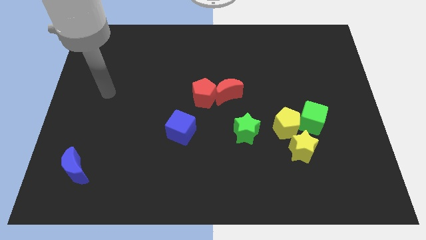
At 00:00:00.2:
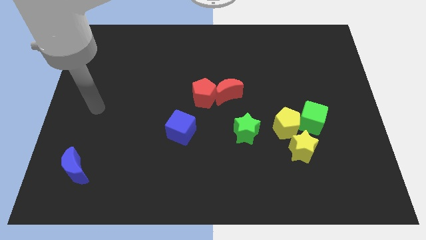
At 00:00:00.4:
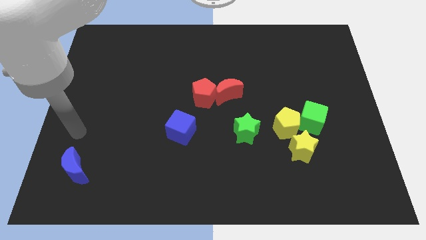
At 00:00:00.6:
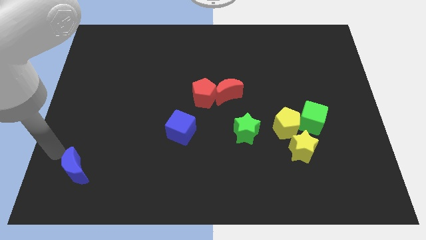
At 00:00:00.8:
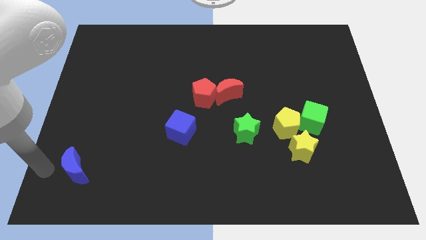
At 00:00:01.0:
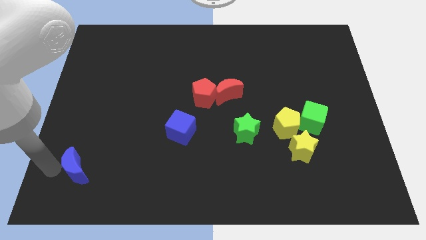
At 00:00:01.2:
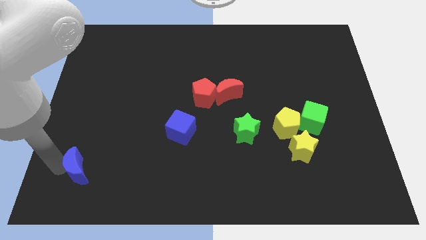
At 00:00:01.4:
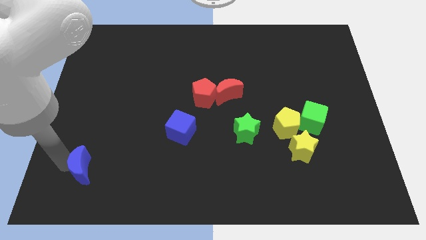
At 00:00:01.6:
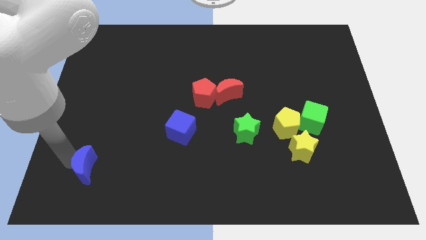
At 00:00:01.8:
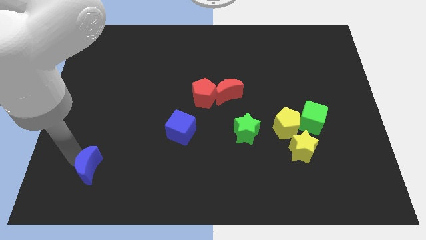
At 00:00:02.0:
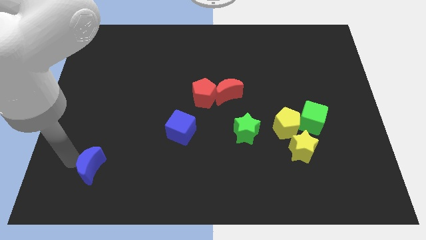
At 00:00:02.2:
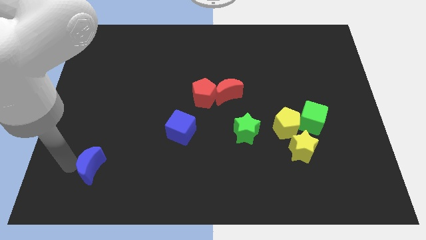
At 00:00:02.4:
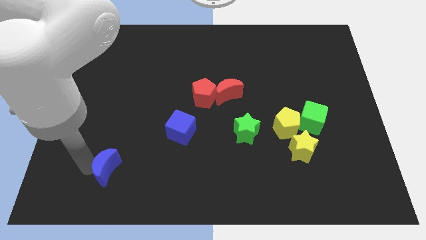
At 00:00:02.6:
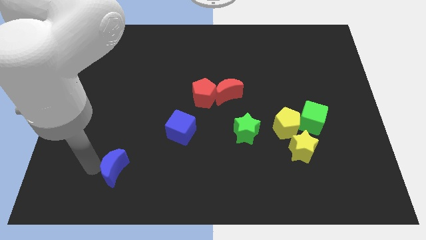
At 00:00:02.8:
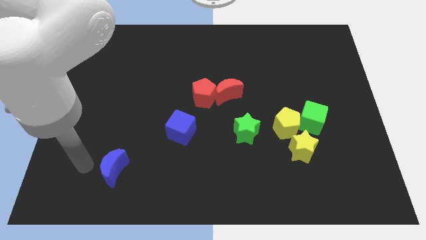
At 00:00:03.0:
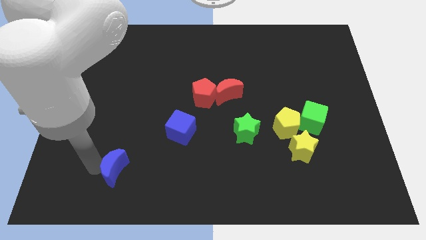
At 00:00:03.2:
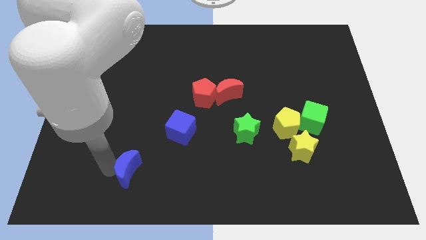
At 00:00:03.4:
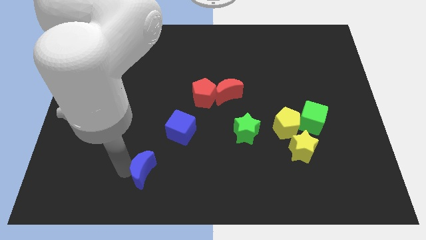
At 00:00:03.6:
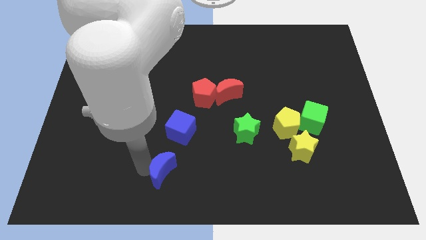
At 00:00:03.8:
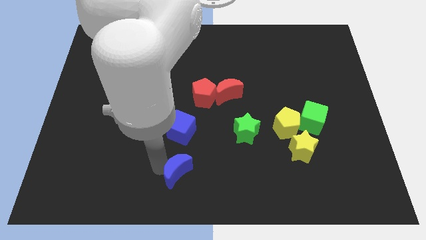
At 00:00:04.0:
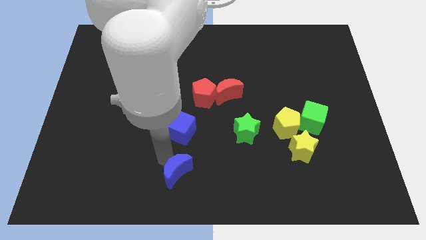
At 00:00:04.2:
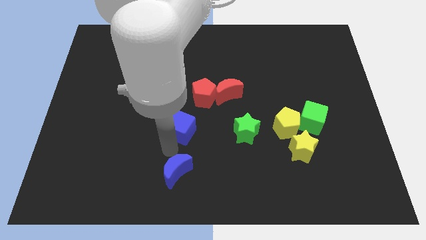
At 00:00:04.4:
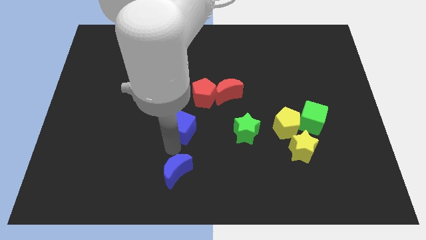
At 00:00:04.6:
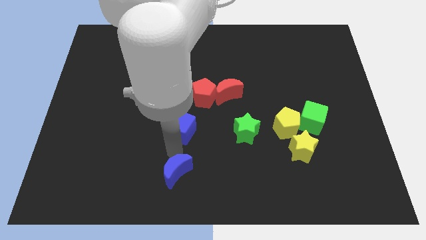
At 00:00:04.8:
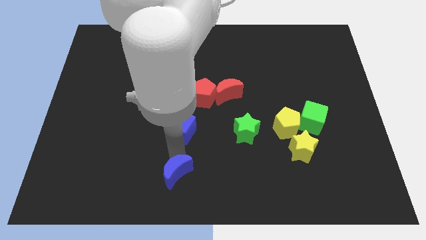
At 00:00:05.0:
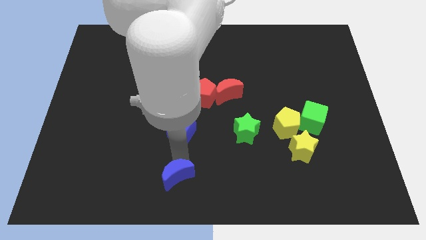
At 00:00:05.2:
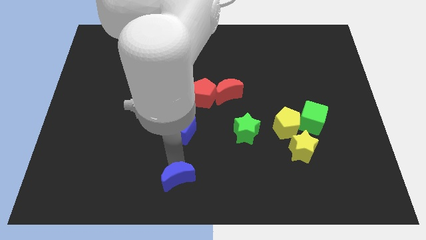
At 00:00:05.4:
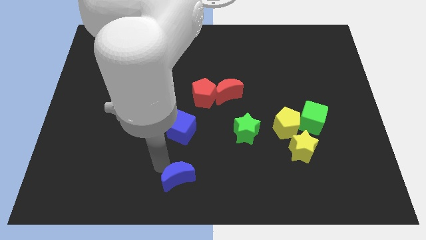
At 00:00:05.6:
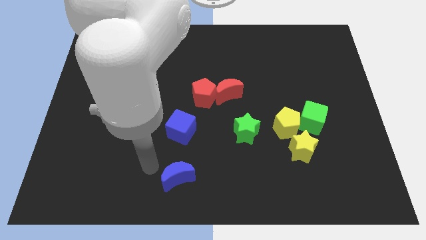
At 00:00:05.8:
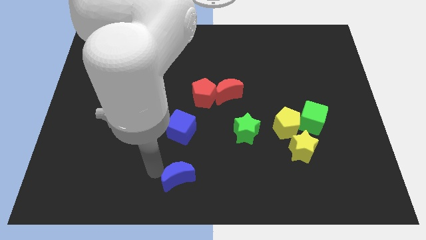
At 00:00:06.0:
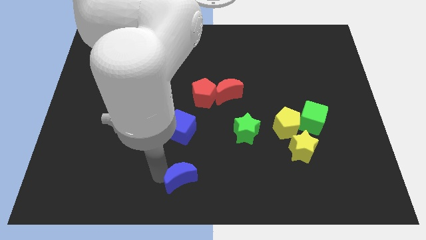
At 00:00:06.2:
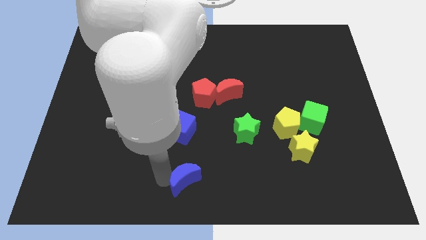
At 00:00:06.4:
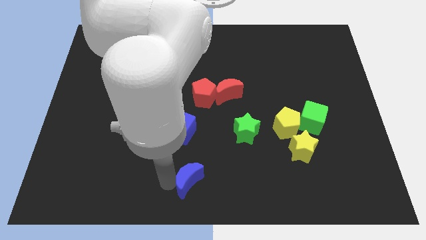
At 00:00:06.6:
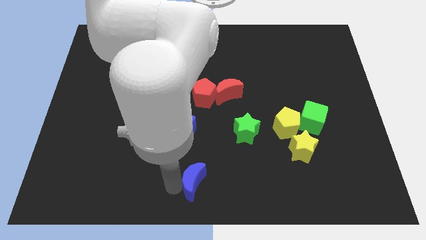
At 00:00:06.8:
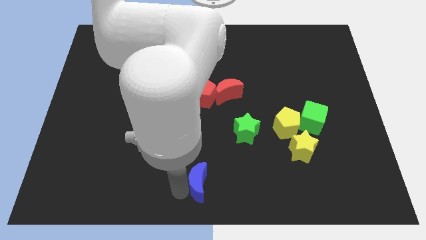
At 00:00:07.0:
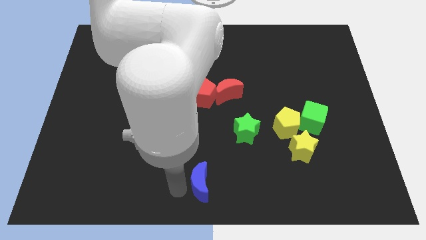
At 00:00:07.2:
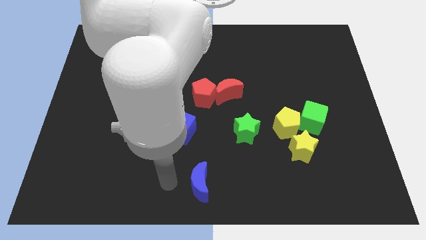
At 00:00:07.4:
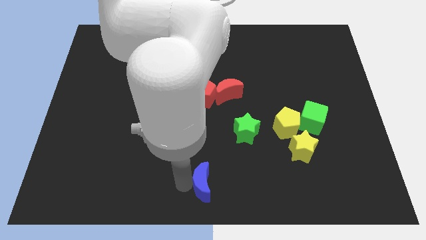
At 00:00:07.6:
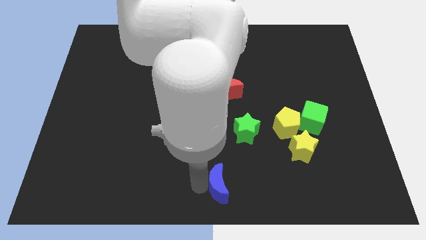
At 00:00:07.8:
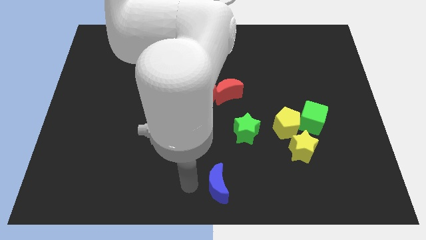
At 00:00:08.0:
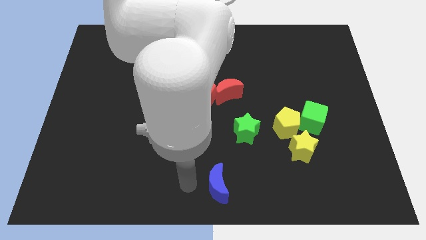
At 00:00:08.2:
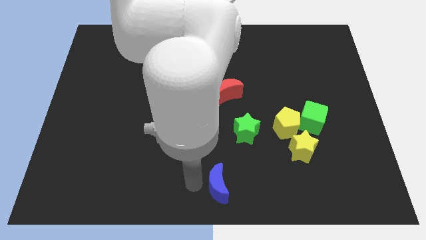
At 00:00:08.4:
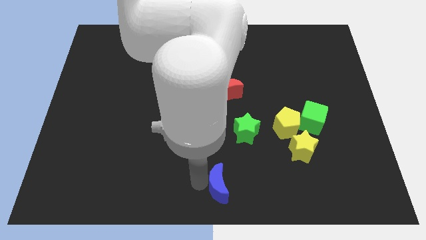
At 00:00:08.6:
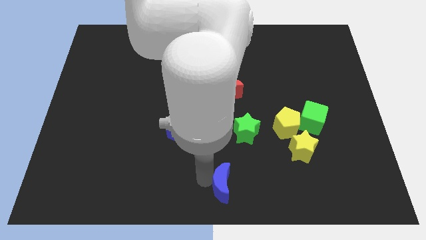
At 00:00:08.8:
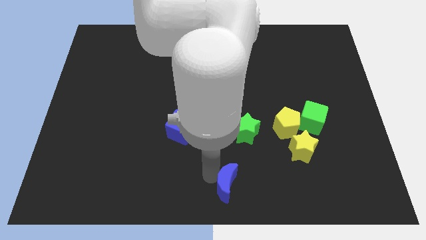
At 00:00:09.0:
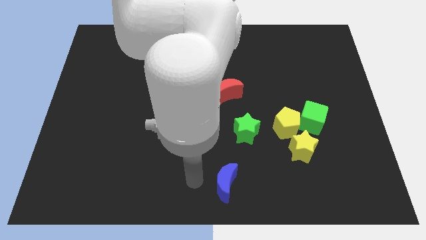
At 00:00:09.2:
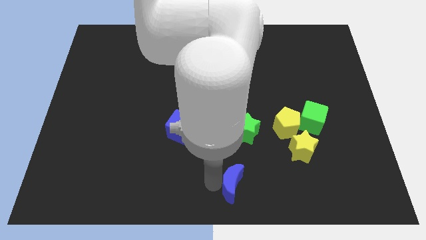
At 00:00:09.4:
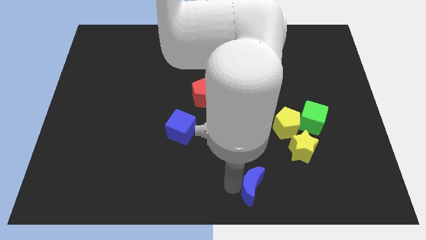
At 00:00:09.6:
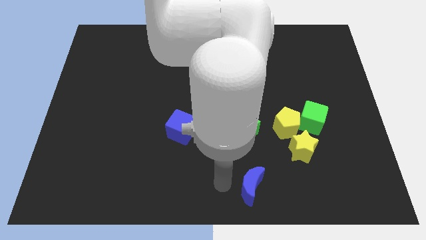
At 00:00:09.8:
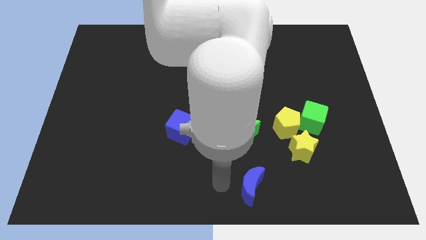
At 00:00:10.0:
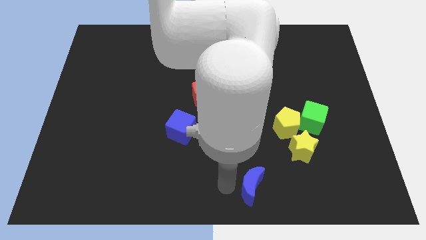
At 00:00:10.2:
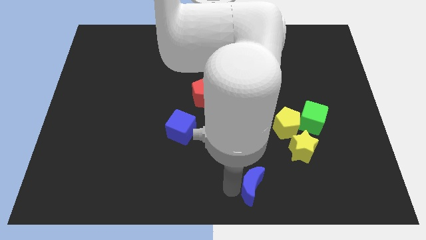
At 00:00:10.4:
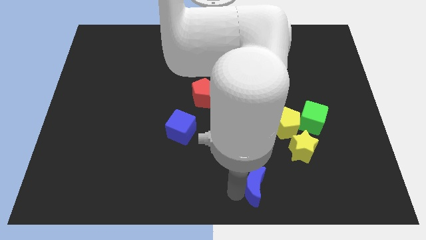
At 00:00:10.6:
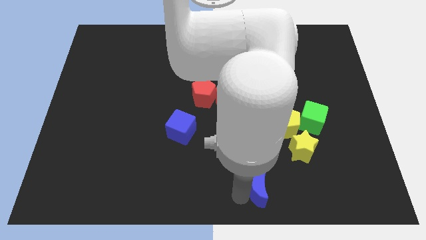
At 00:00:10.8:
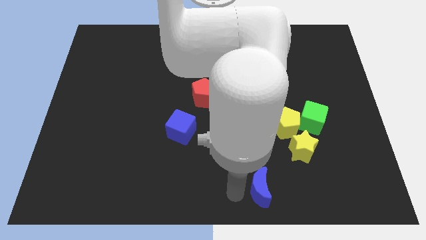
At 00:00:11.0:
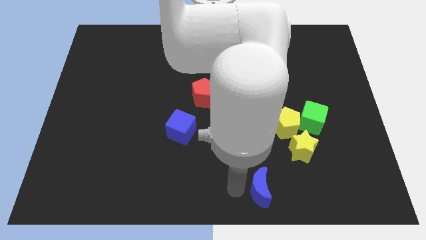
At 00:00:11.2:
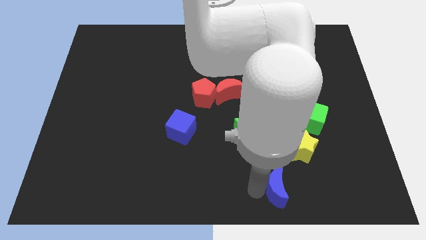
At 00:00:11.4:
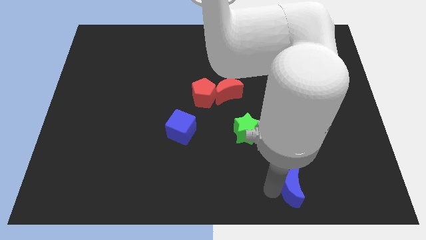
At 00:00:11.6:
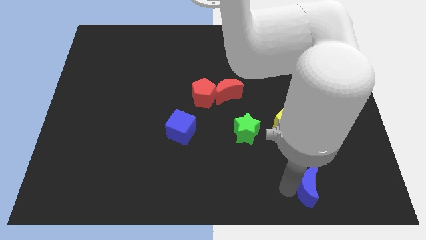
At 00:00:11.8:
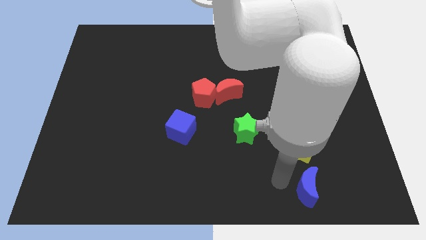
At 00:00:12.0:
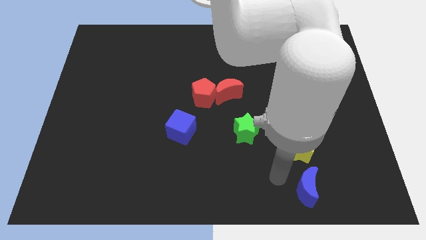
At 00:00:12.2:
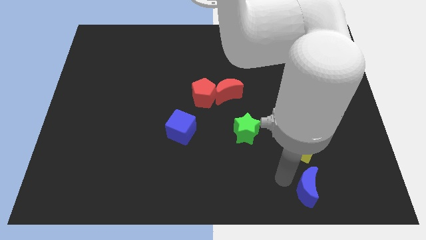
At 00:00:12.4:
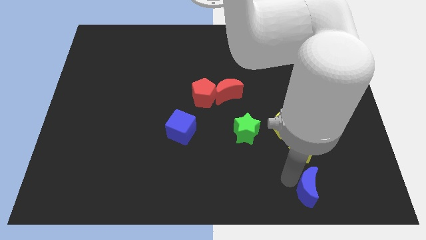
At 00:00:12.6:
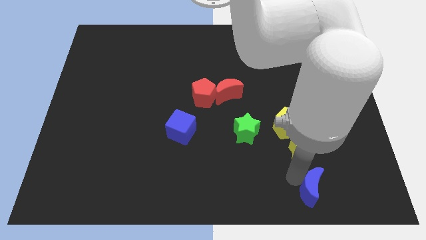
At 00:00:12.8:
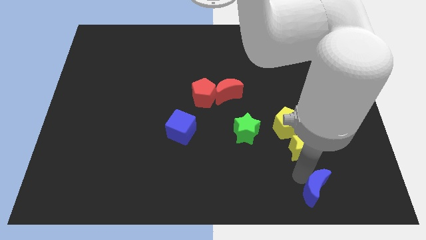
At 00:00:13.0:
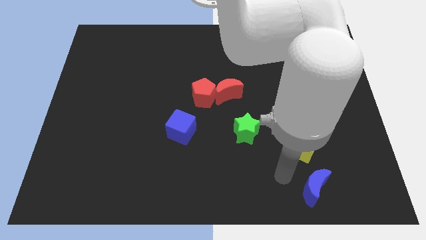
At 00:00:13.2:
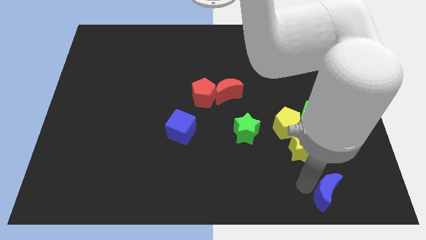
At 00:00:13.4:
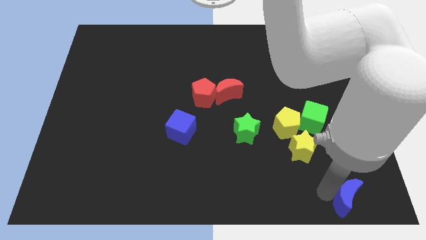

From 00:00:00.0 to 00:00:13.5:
push the blue moon to the lower right corner

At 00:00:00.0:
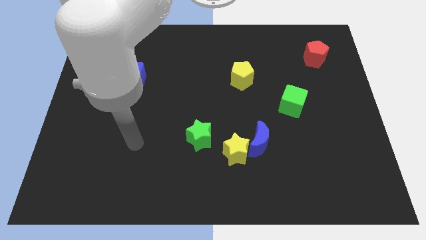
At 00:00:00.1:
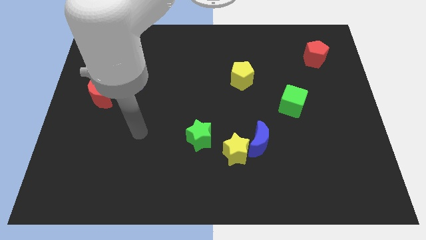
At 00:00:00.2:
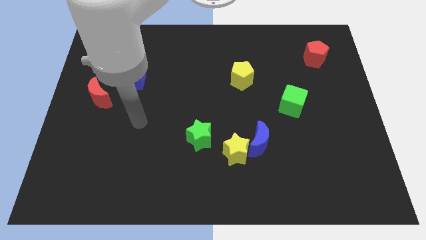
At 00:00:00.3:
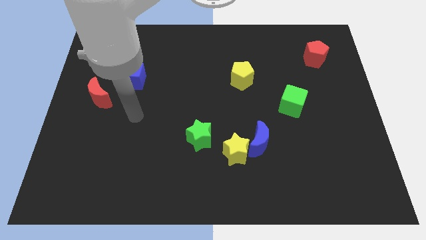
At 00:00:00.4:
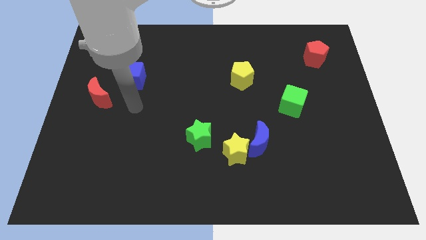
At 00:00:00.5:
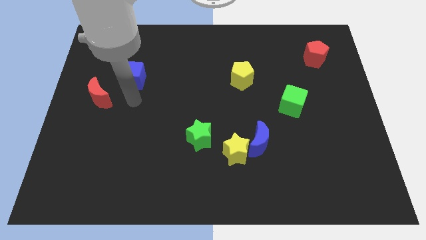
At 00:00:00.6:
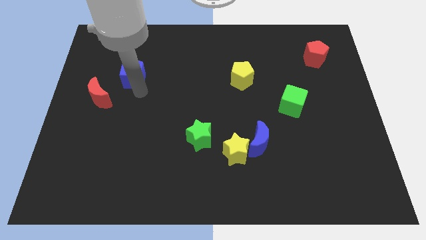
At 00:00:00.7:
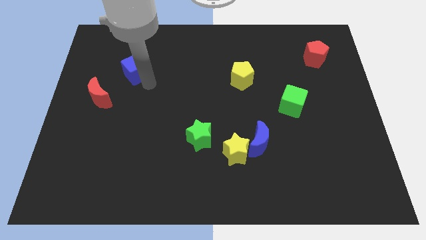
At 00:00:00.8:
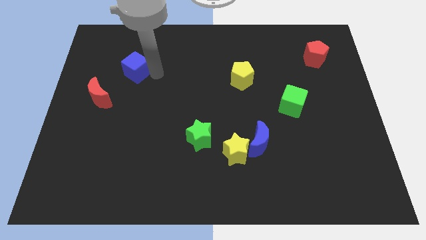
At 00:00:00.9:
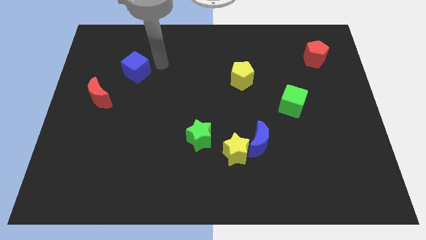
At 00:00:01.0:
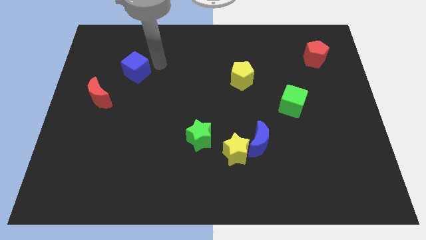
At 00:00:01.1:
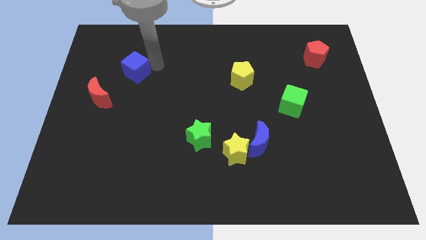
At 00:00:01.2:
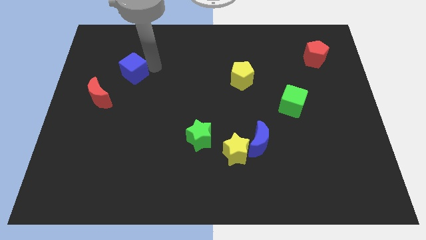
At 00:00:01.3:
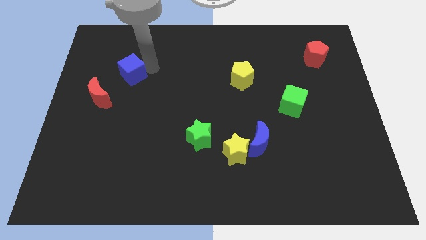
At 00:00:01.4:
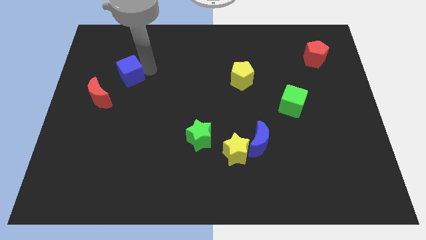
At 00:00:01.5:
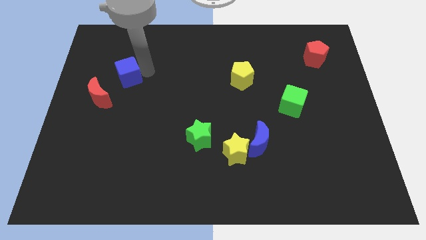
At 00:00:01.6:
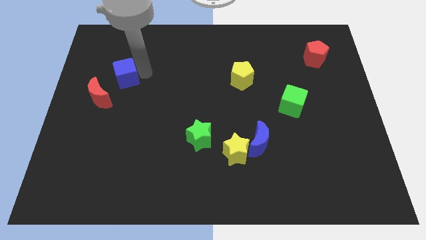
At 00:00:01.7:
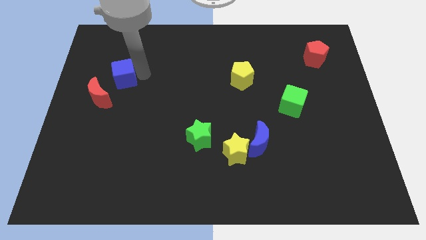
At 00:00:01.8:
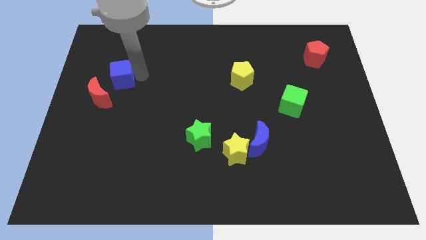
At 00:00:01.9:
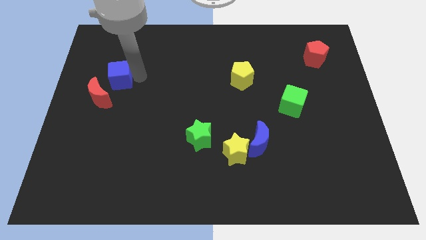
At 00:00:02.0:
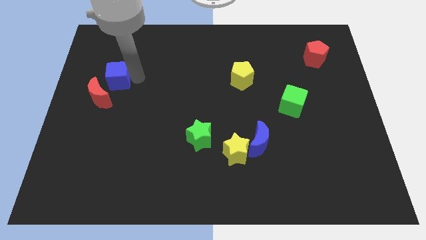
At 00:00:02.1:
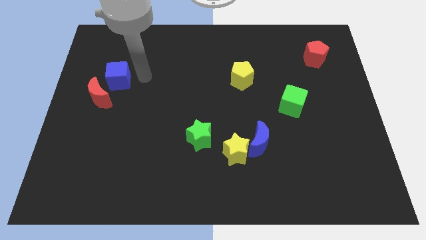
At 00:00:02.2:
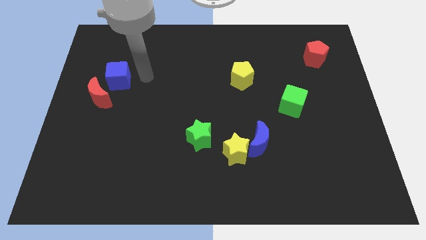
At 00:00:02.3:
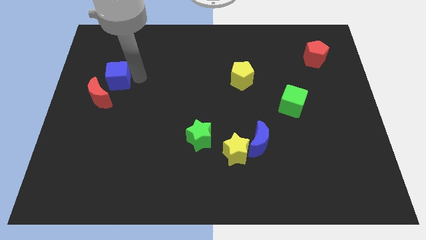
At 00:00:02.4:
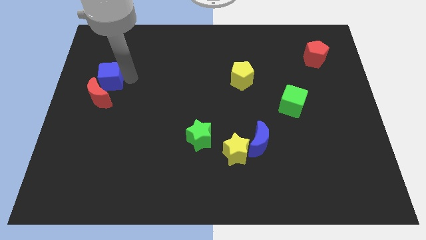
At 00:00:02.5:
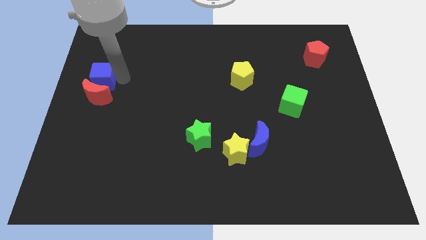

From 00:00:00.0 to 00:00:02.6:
put the blue cube to the left side of the board
